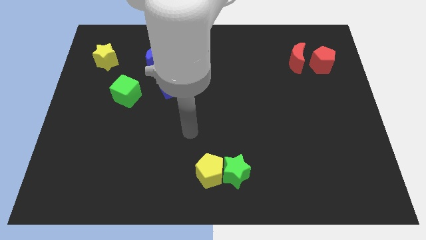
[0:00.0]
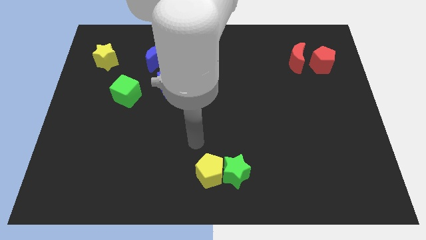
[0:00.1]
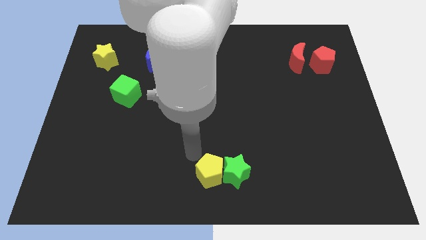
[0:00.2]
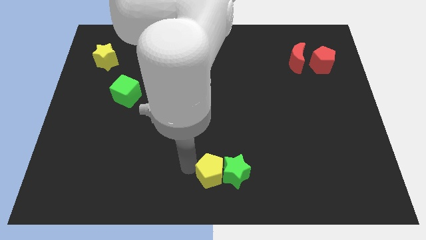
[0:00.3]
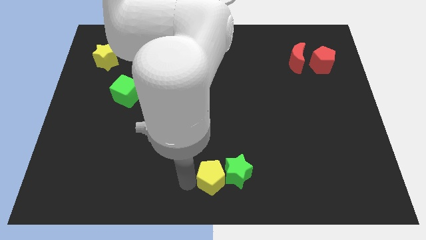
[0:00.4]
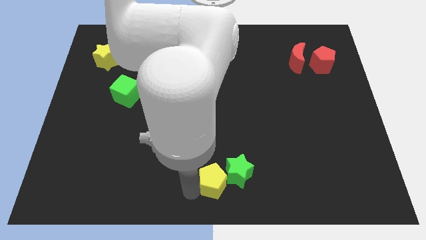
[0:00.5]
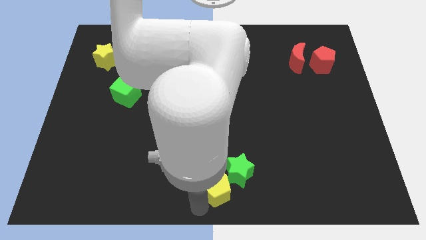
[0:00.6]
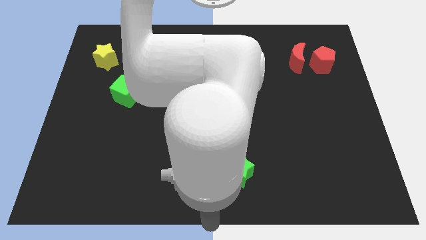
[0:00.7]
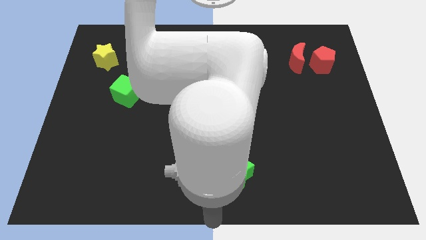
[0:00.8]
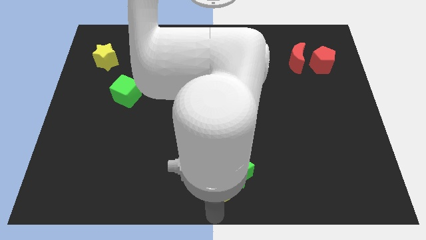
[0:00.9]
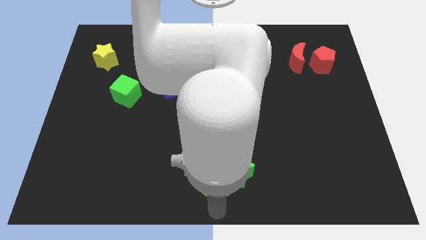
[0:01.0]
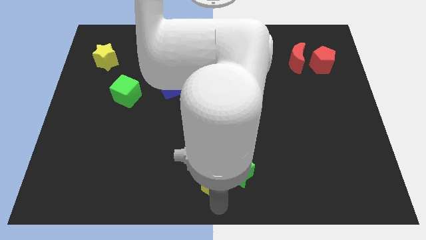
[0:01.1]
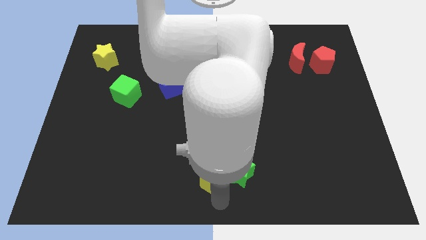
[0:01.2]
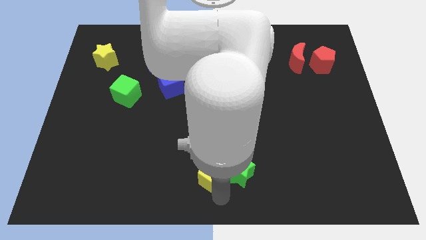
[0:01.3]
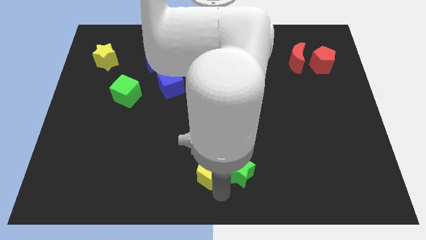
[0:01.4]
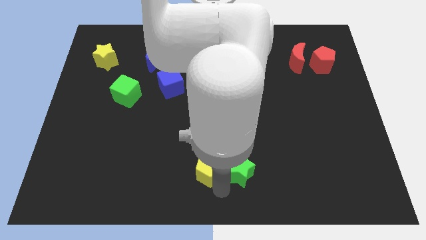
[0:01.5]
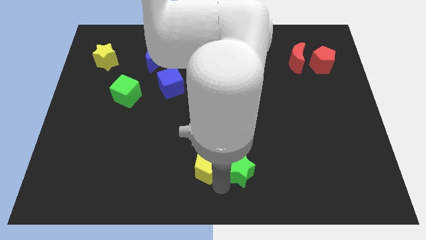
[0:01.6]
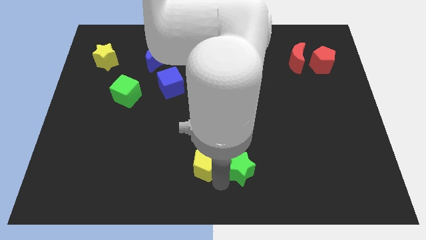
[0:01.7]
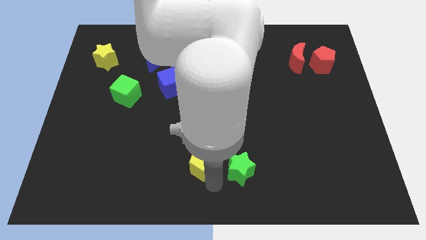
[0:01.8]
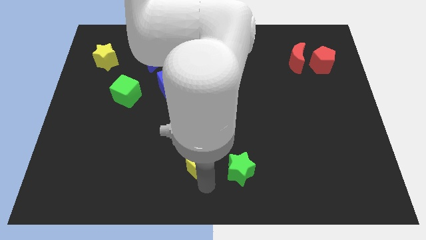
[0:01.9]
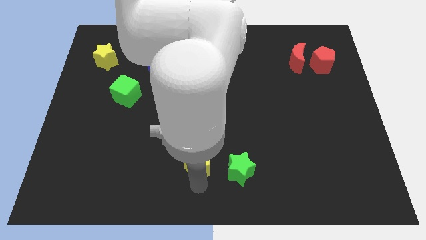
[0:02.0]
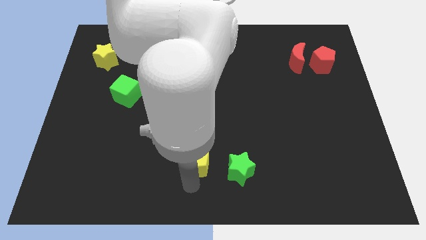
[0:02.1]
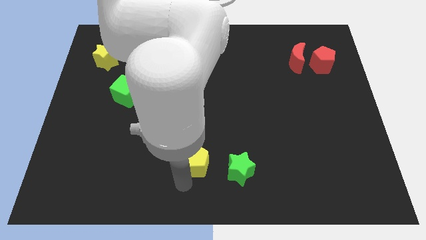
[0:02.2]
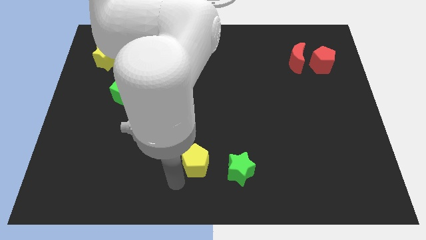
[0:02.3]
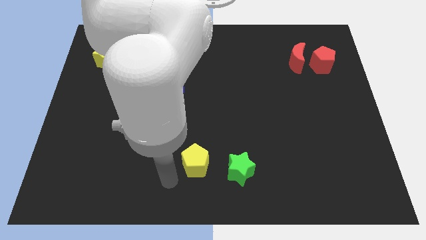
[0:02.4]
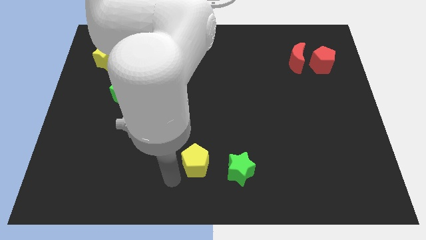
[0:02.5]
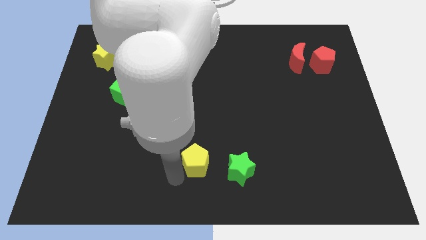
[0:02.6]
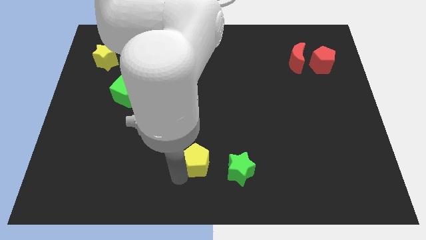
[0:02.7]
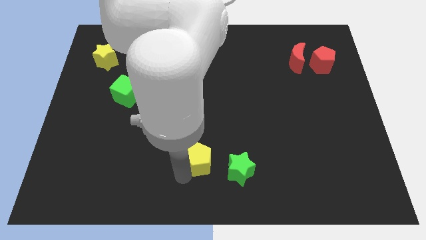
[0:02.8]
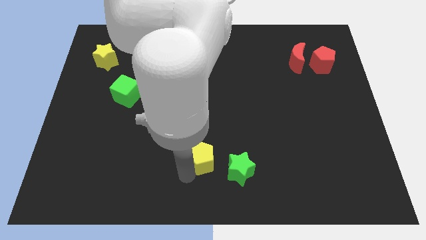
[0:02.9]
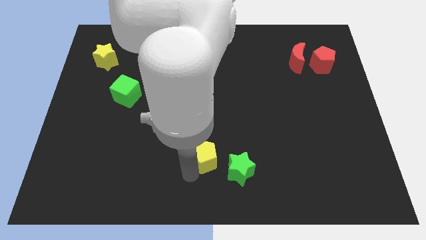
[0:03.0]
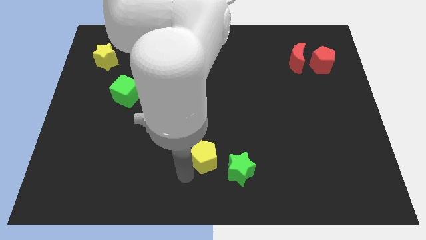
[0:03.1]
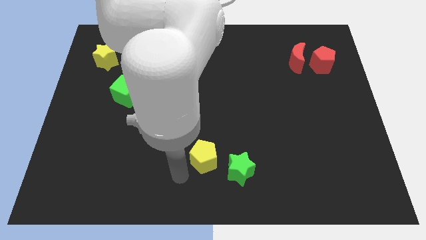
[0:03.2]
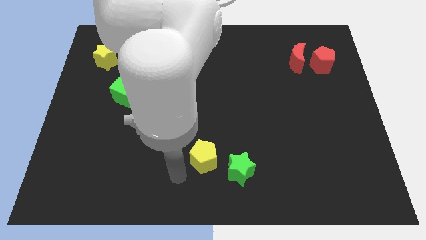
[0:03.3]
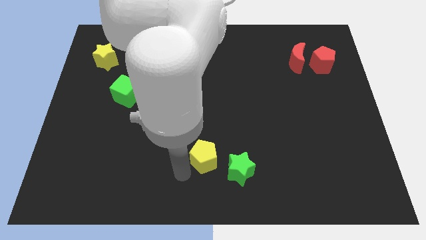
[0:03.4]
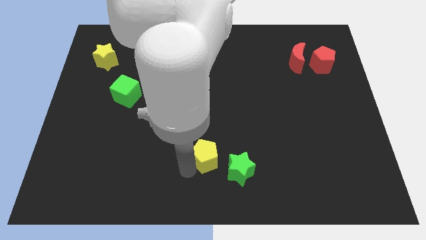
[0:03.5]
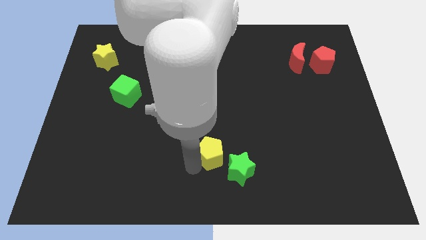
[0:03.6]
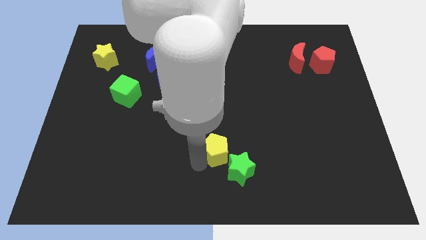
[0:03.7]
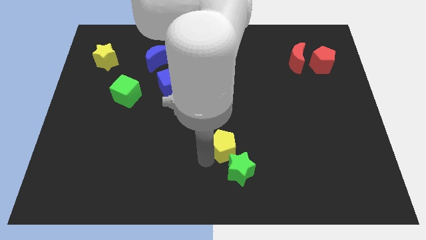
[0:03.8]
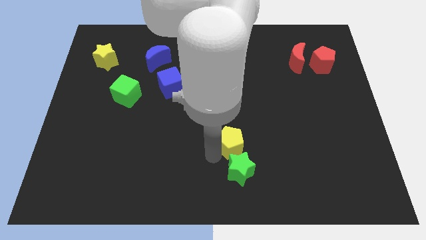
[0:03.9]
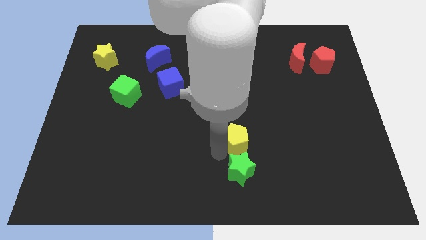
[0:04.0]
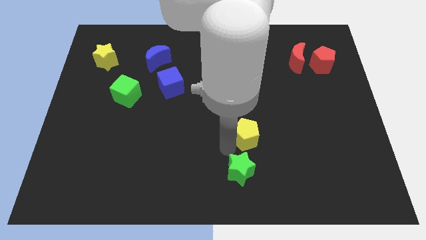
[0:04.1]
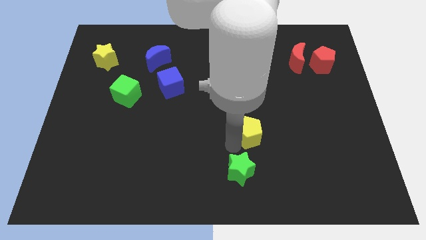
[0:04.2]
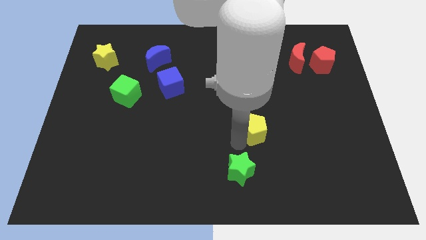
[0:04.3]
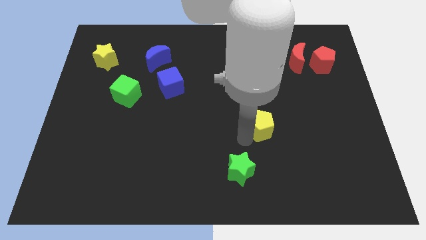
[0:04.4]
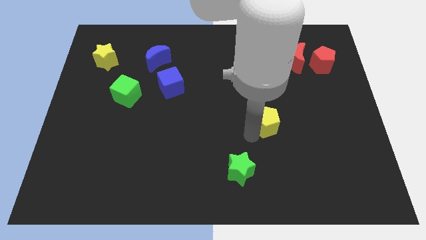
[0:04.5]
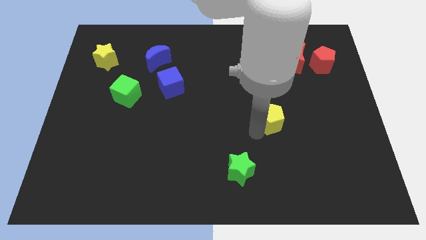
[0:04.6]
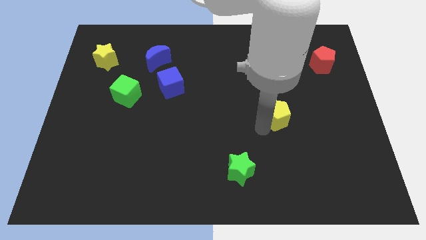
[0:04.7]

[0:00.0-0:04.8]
push the yellow pentagon up and right diagonally

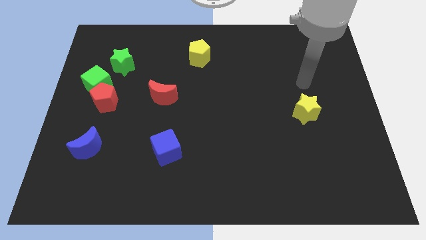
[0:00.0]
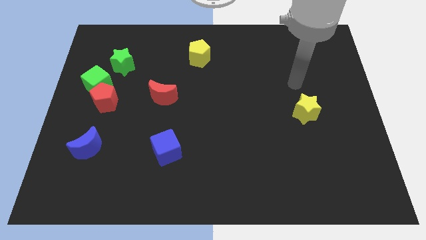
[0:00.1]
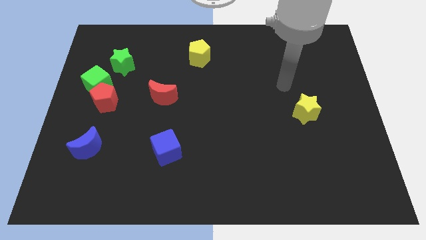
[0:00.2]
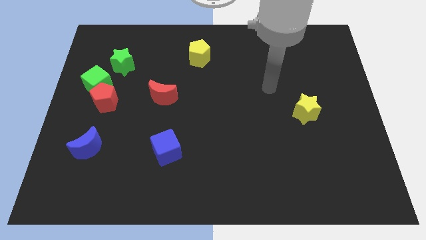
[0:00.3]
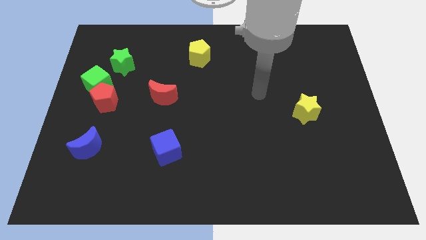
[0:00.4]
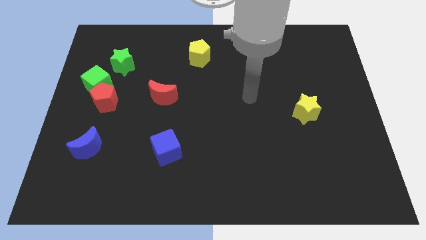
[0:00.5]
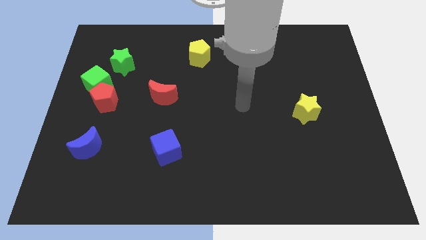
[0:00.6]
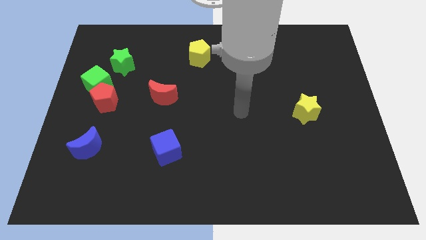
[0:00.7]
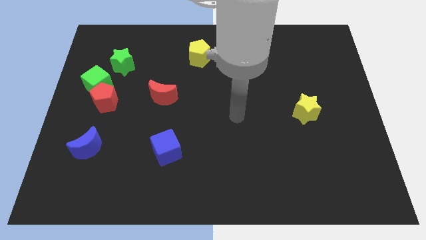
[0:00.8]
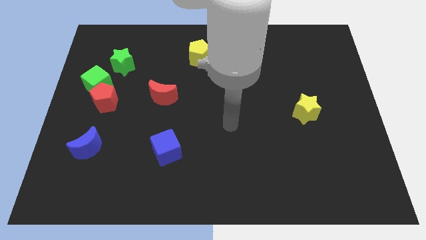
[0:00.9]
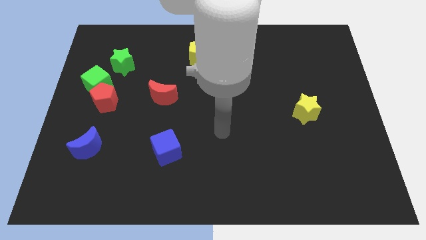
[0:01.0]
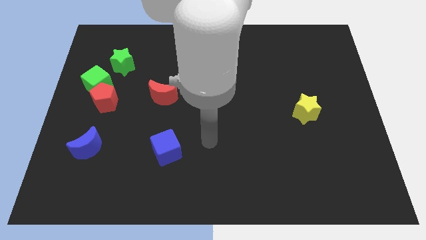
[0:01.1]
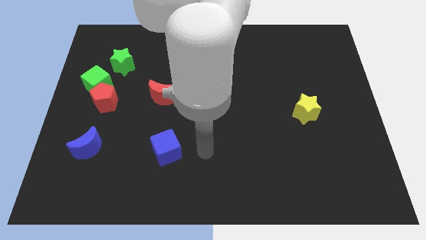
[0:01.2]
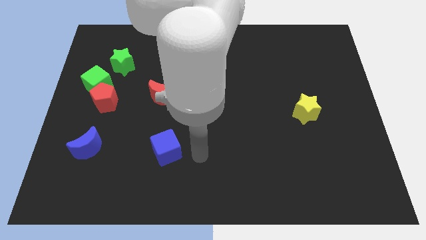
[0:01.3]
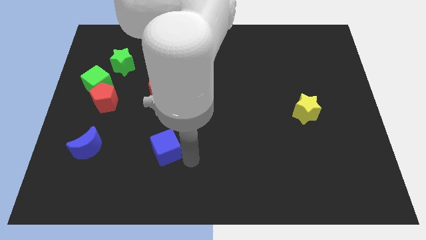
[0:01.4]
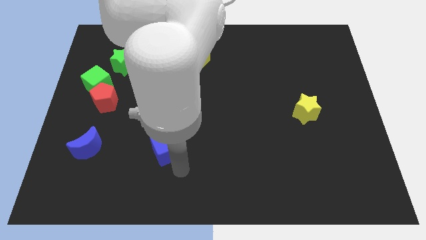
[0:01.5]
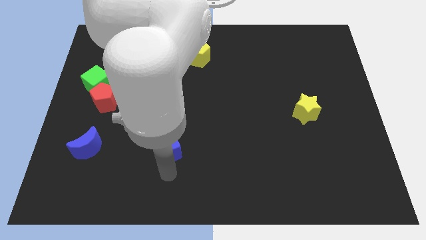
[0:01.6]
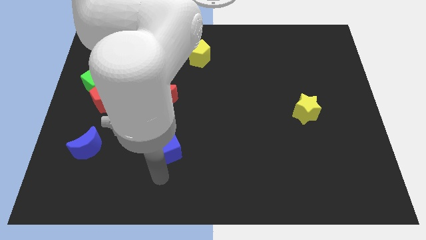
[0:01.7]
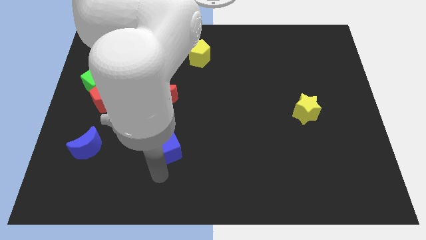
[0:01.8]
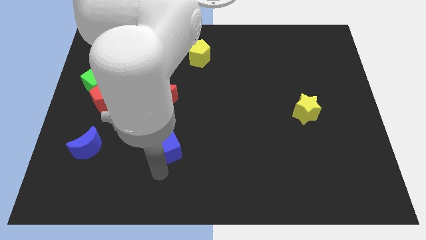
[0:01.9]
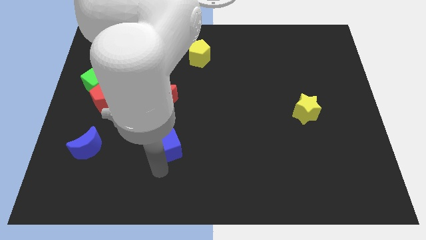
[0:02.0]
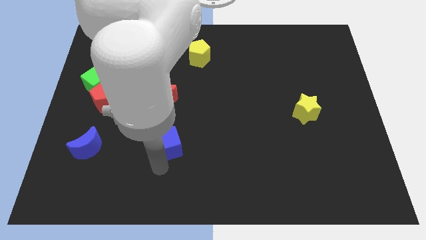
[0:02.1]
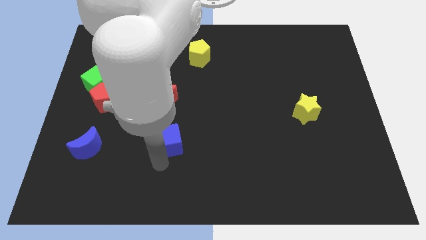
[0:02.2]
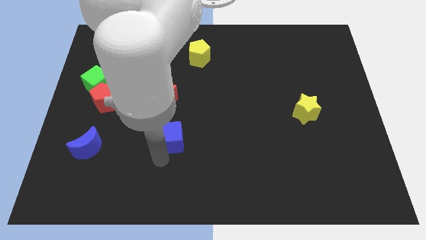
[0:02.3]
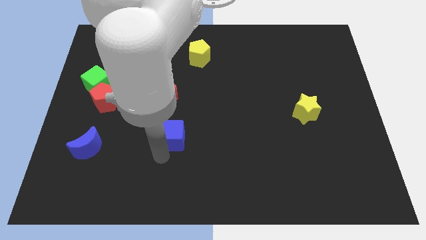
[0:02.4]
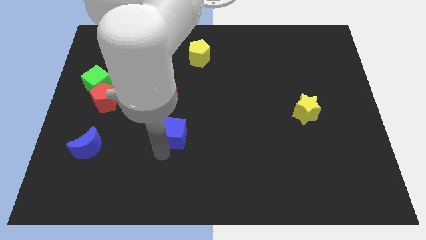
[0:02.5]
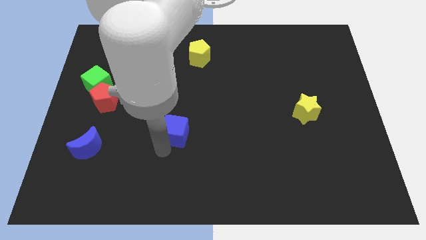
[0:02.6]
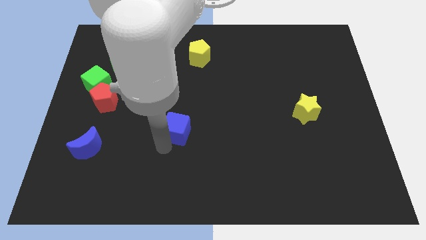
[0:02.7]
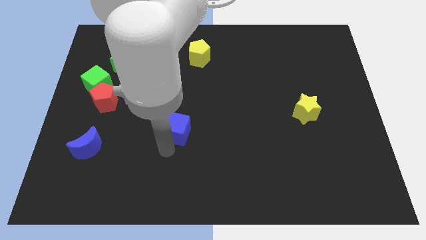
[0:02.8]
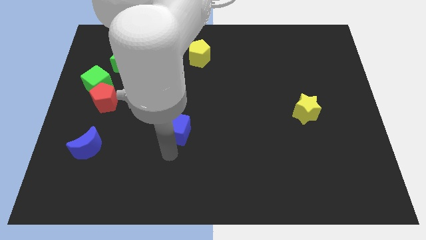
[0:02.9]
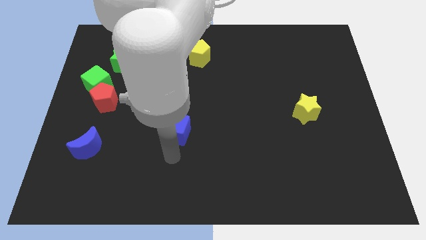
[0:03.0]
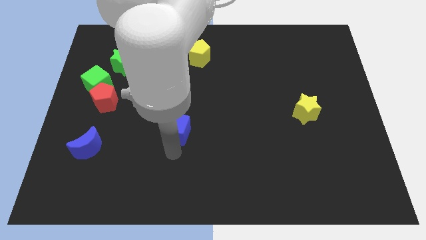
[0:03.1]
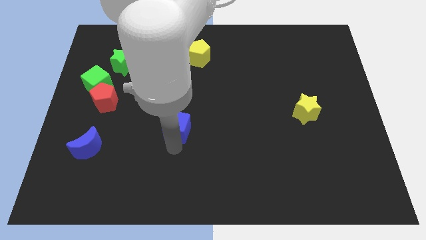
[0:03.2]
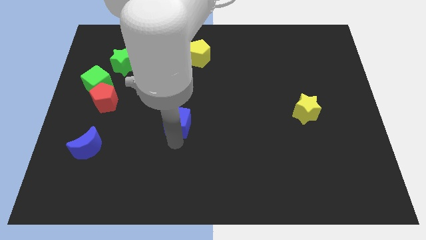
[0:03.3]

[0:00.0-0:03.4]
move the blue cube a little bit upwards
